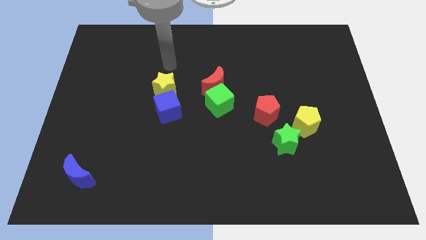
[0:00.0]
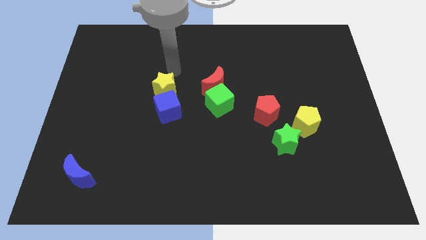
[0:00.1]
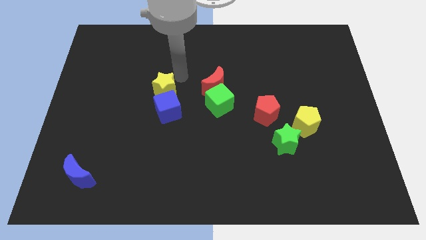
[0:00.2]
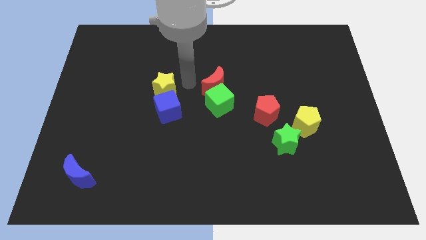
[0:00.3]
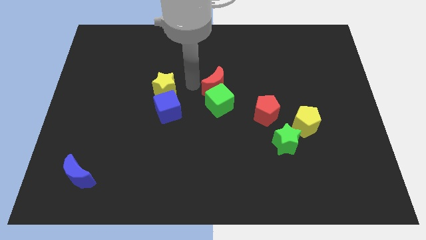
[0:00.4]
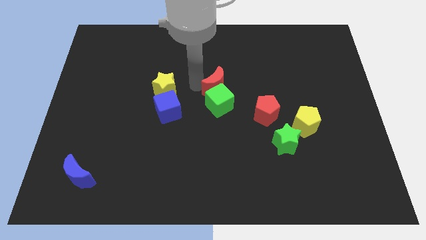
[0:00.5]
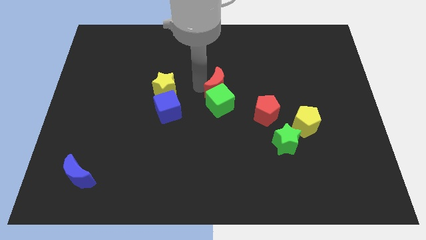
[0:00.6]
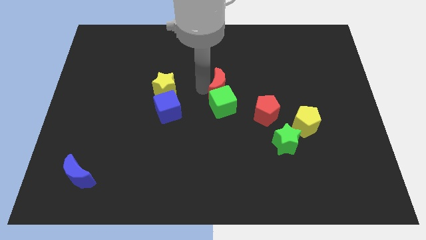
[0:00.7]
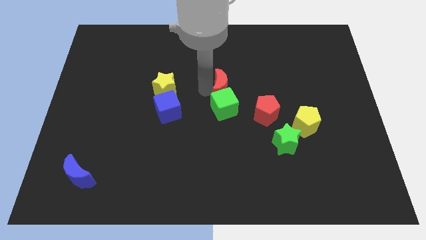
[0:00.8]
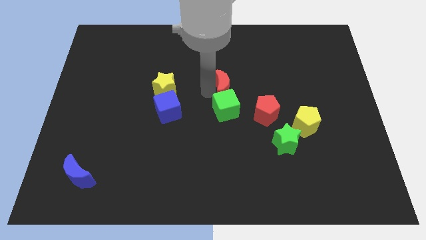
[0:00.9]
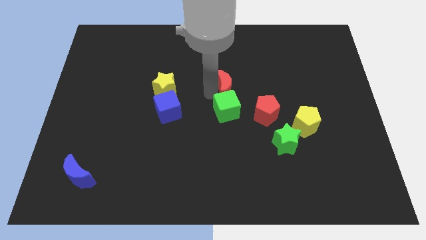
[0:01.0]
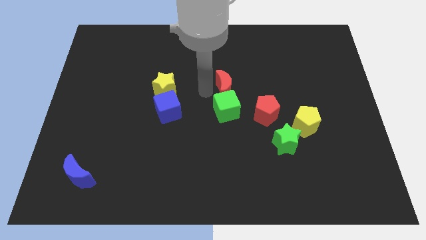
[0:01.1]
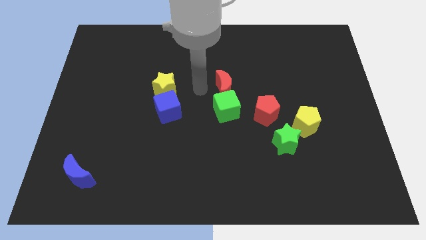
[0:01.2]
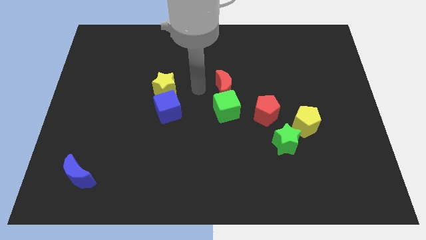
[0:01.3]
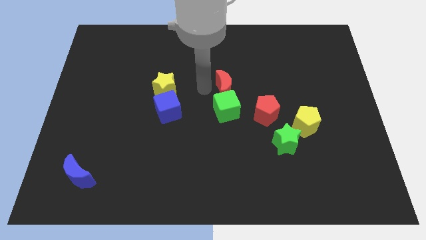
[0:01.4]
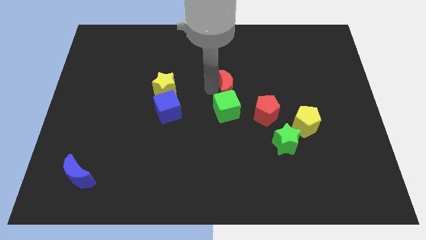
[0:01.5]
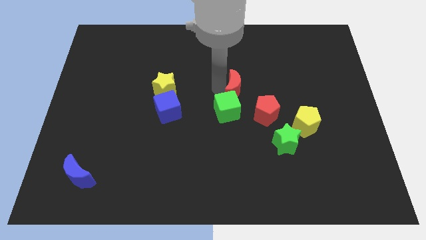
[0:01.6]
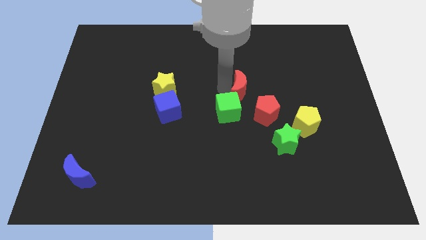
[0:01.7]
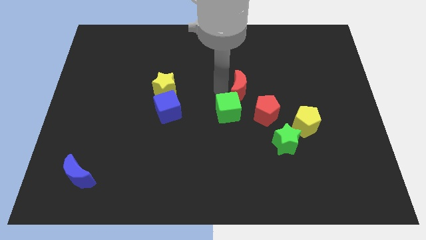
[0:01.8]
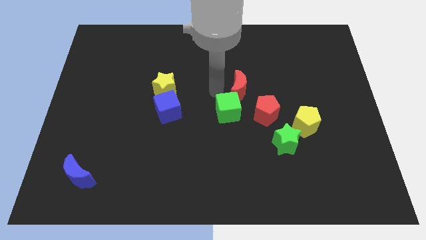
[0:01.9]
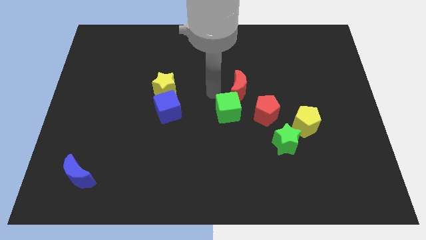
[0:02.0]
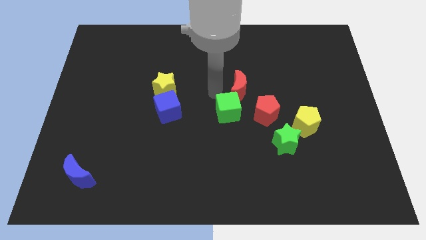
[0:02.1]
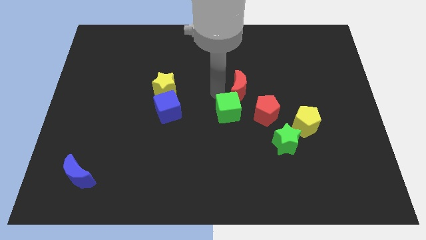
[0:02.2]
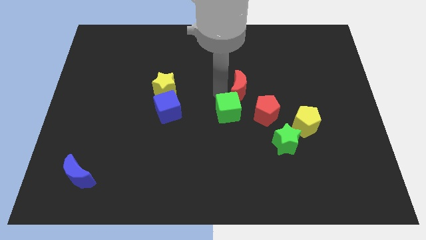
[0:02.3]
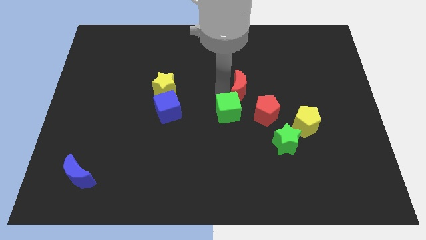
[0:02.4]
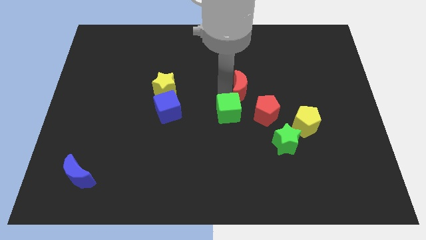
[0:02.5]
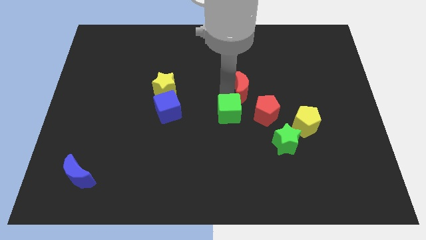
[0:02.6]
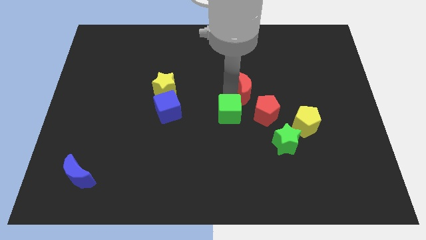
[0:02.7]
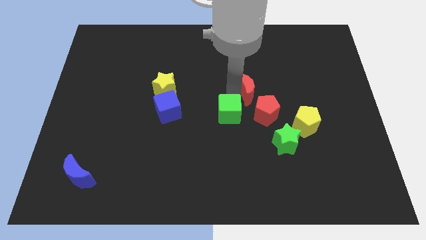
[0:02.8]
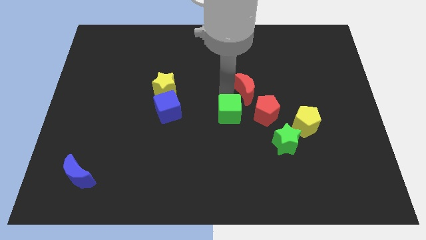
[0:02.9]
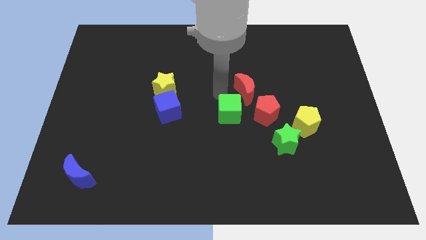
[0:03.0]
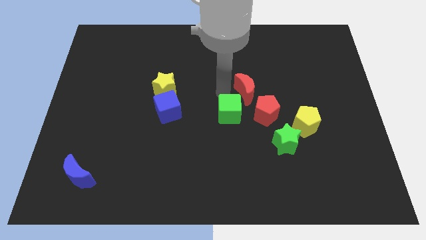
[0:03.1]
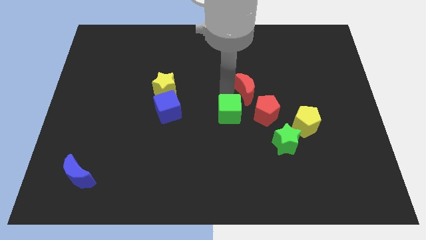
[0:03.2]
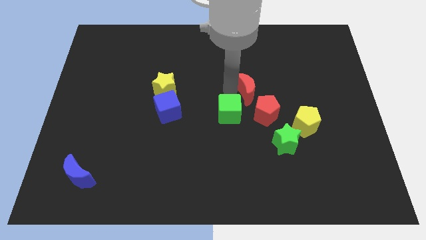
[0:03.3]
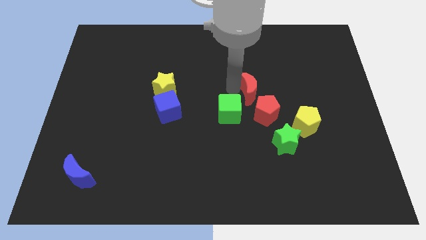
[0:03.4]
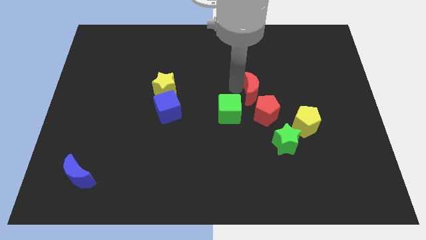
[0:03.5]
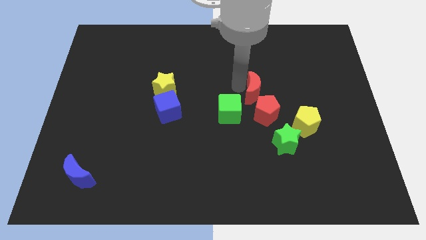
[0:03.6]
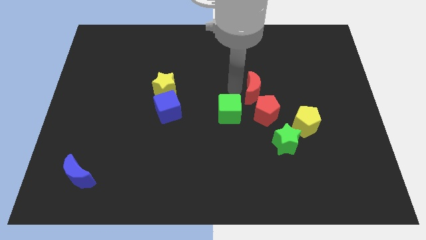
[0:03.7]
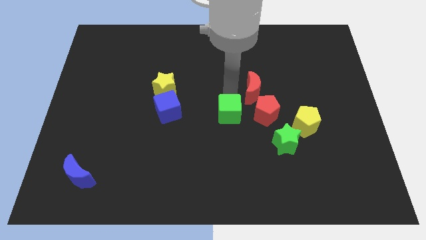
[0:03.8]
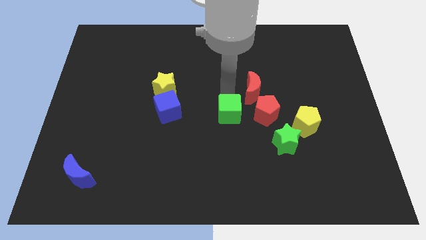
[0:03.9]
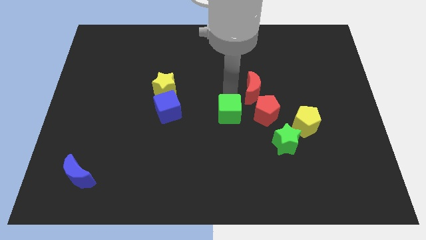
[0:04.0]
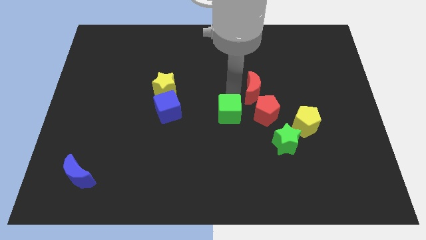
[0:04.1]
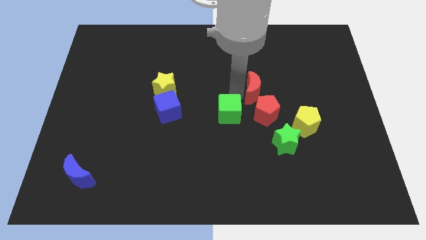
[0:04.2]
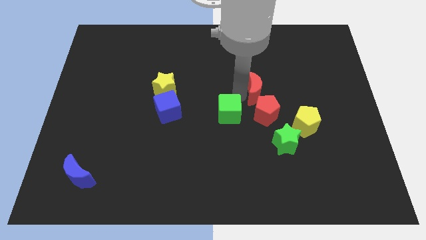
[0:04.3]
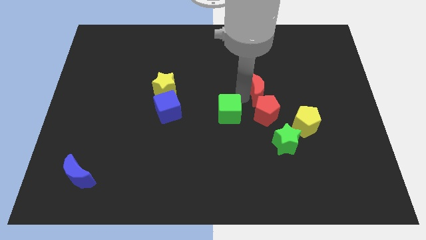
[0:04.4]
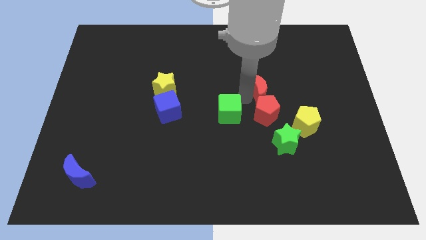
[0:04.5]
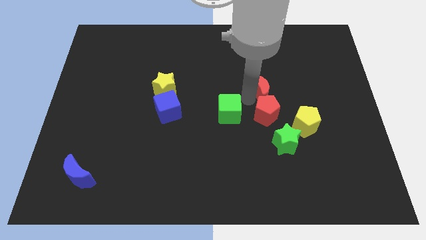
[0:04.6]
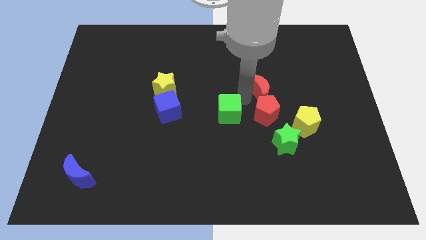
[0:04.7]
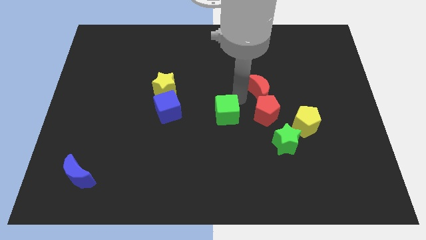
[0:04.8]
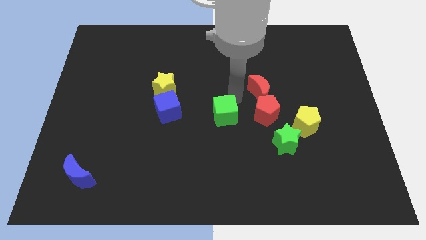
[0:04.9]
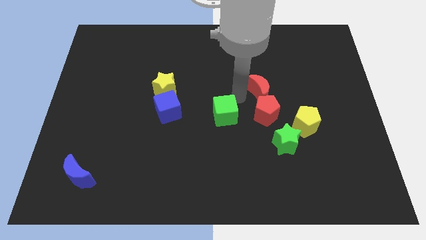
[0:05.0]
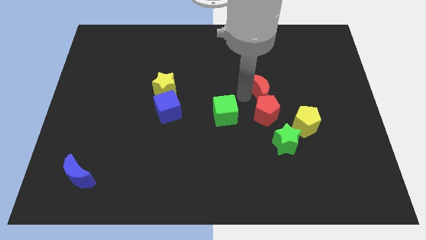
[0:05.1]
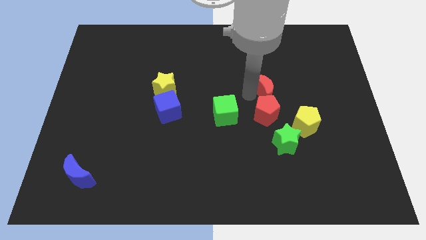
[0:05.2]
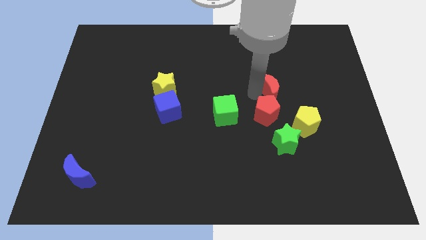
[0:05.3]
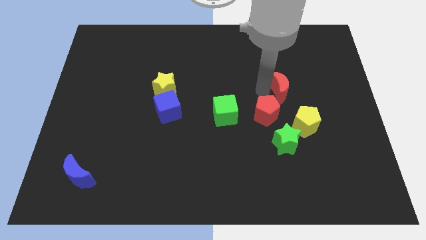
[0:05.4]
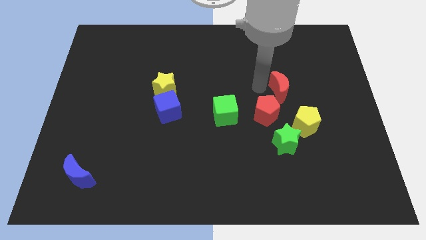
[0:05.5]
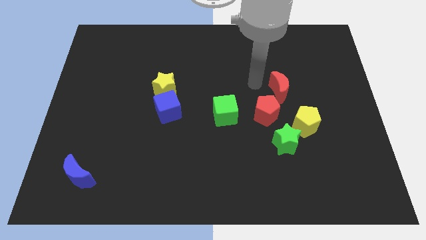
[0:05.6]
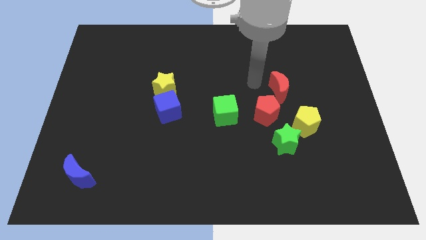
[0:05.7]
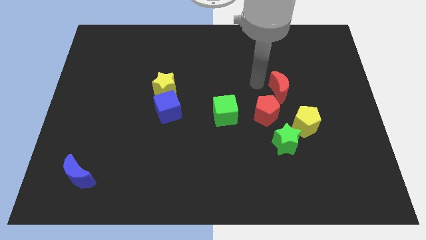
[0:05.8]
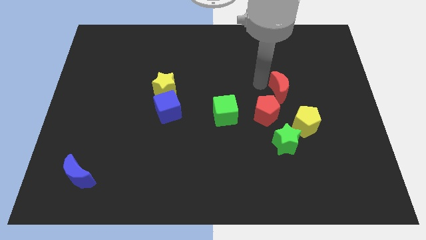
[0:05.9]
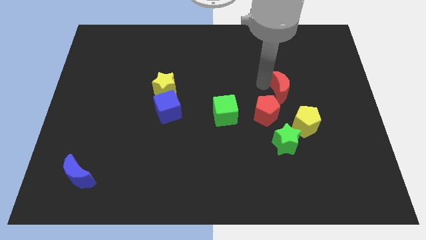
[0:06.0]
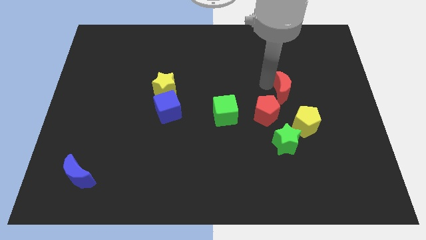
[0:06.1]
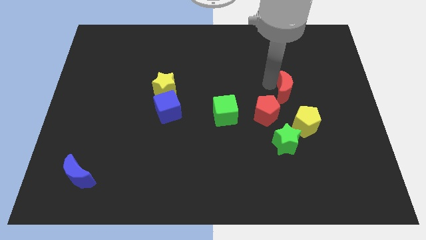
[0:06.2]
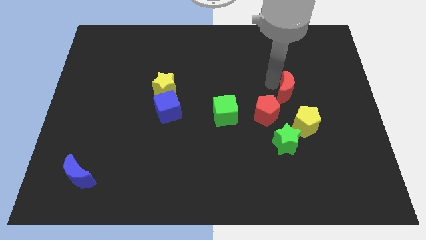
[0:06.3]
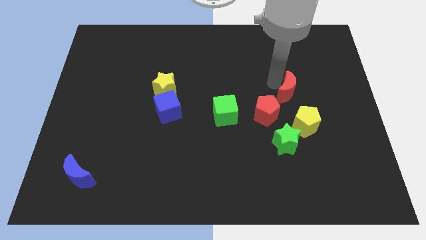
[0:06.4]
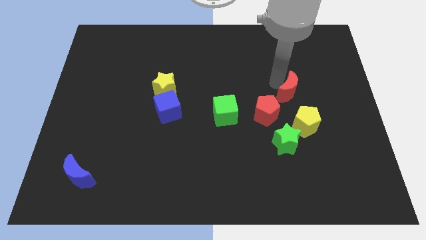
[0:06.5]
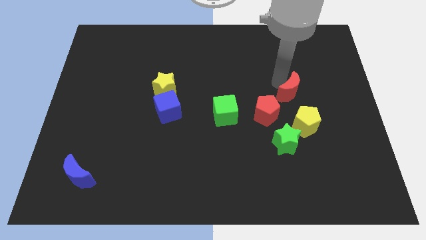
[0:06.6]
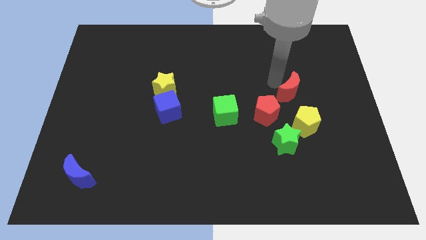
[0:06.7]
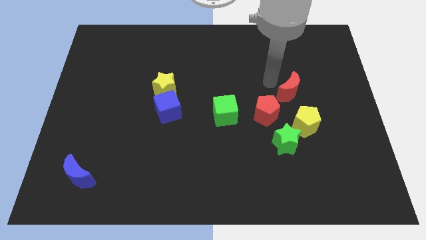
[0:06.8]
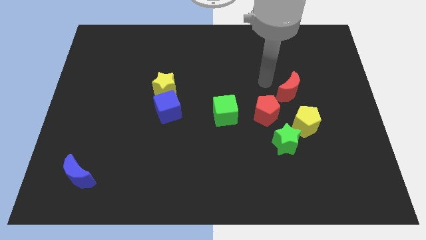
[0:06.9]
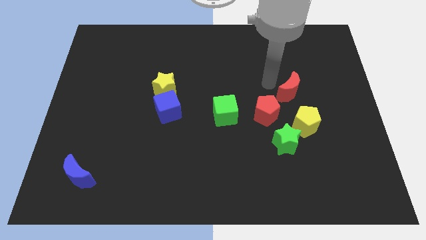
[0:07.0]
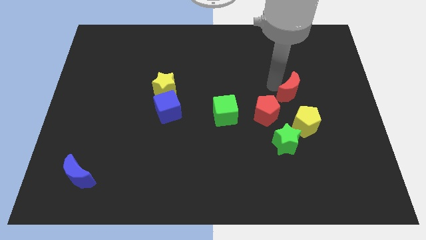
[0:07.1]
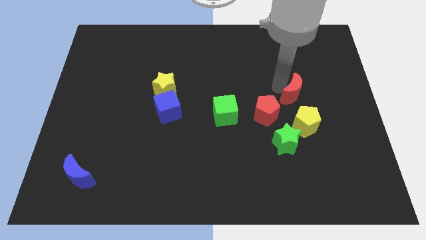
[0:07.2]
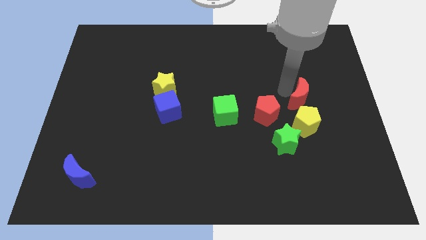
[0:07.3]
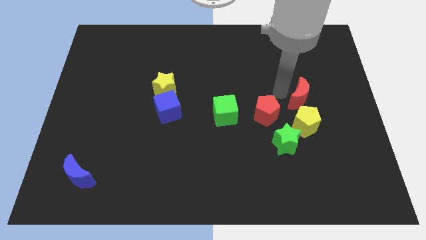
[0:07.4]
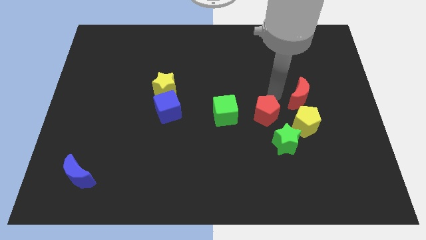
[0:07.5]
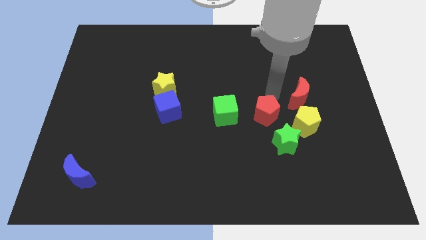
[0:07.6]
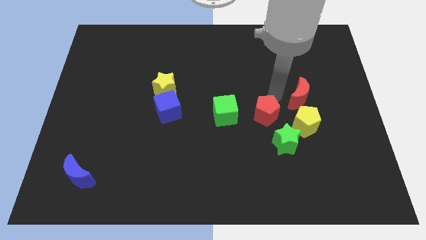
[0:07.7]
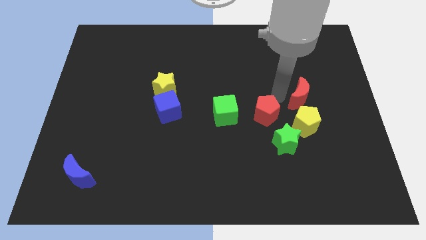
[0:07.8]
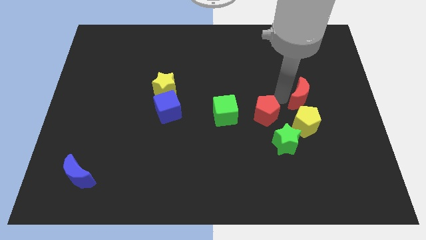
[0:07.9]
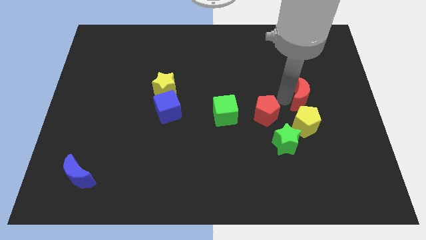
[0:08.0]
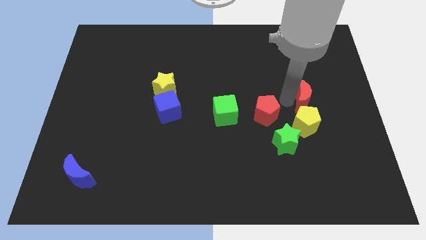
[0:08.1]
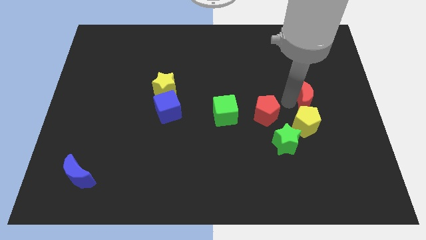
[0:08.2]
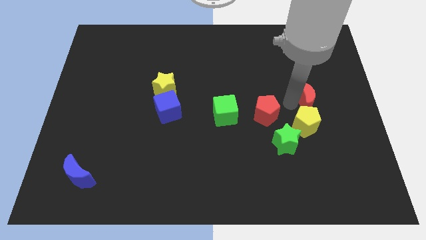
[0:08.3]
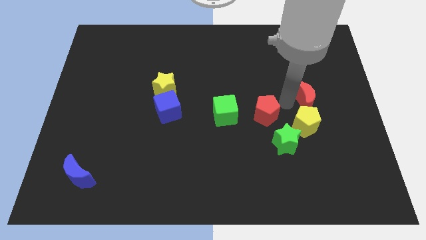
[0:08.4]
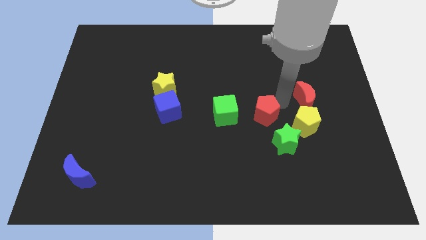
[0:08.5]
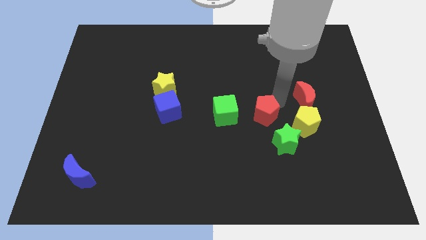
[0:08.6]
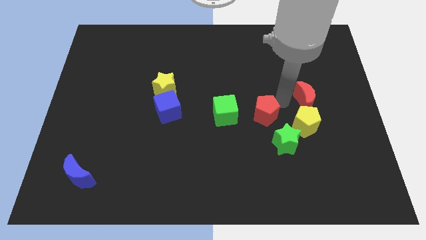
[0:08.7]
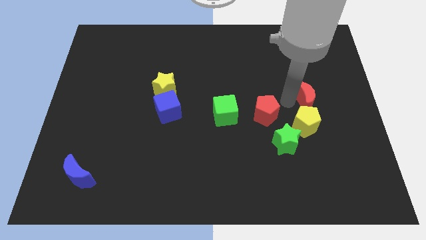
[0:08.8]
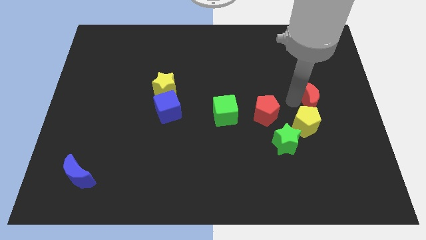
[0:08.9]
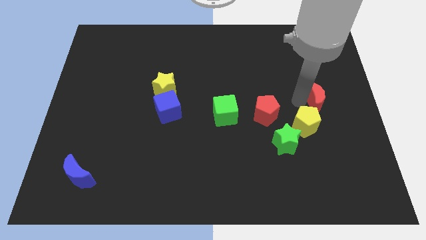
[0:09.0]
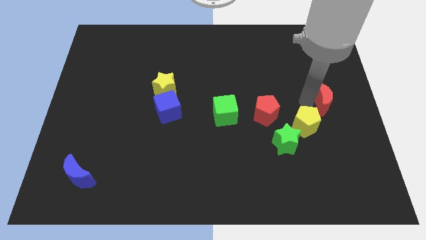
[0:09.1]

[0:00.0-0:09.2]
slide the red moon to the right side
